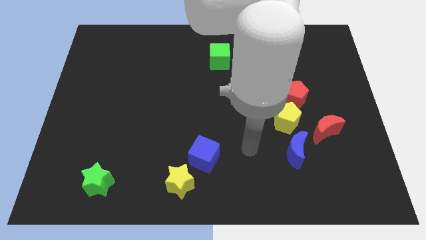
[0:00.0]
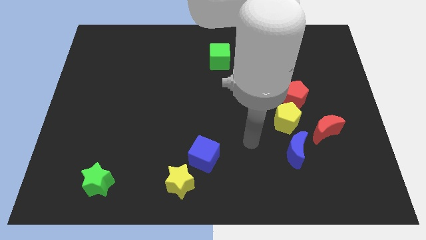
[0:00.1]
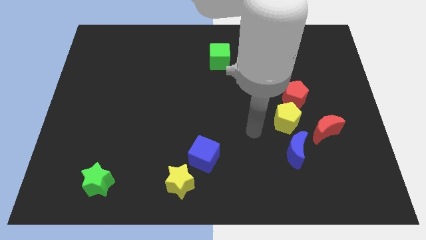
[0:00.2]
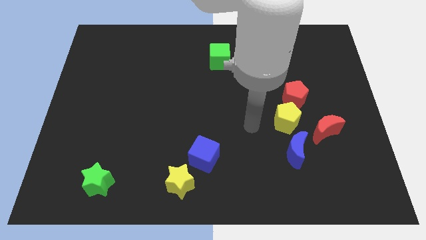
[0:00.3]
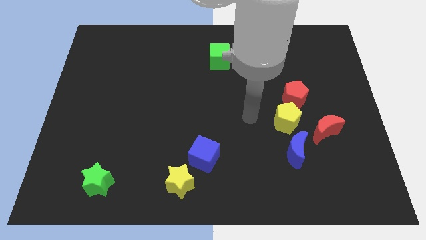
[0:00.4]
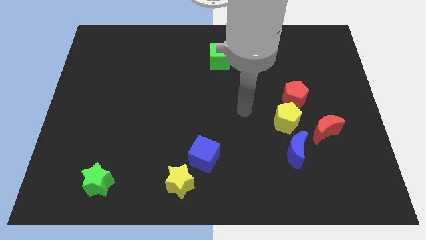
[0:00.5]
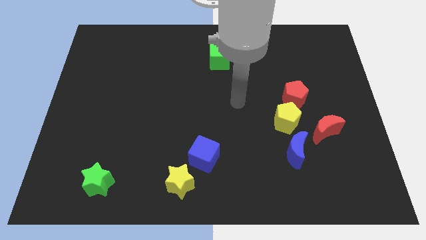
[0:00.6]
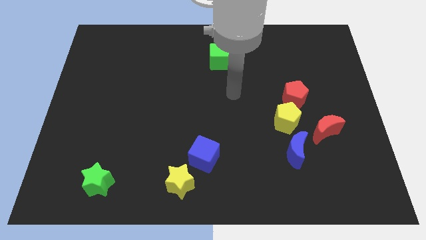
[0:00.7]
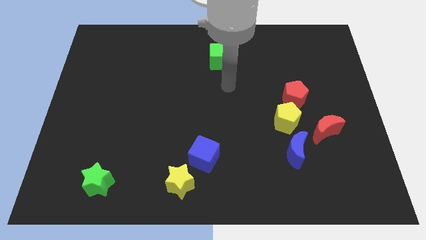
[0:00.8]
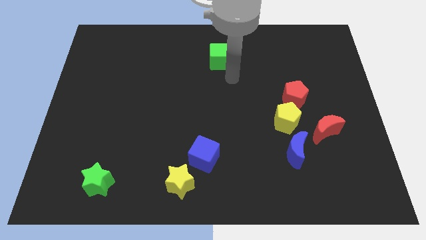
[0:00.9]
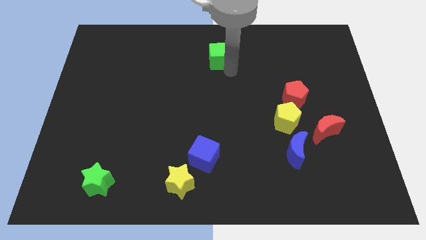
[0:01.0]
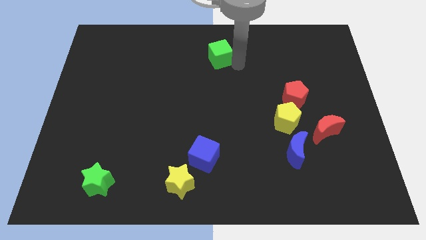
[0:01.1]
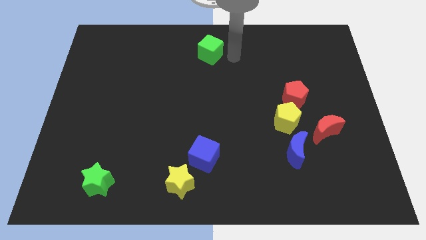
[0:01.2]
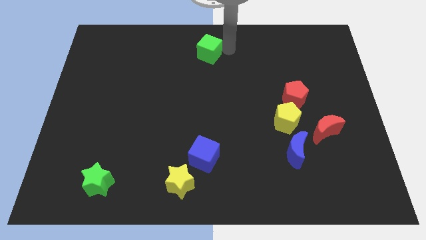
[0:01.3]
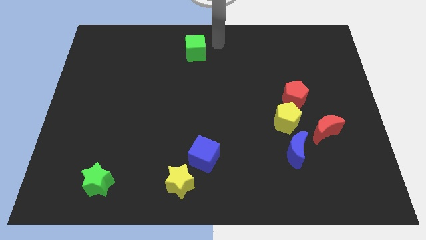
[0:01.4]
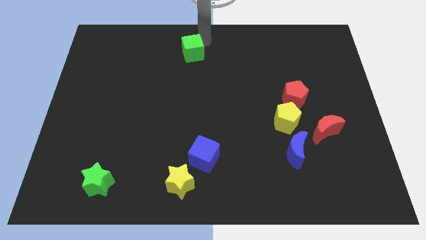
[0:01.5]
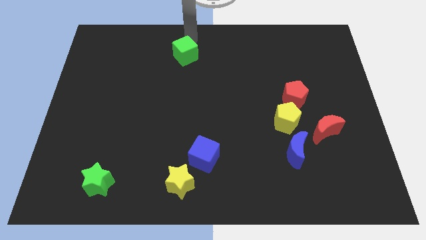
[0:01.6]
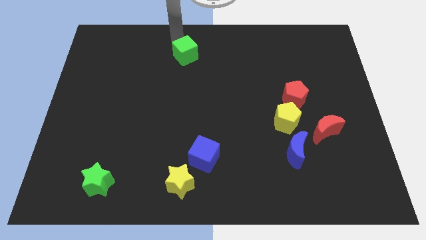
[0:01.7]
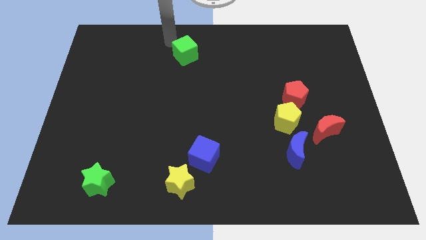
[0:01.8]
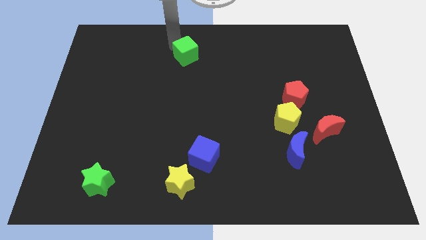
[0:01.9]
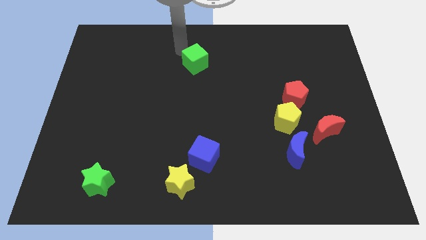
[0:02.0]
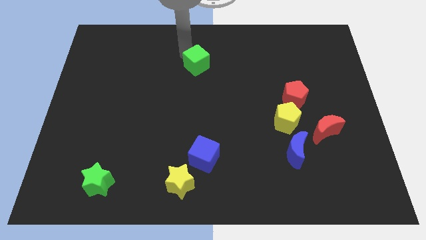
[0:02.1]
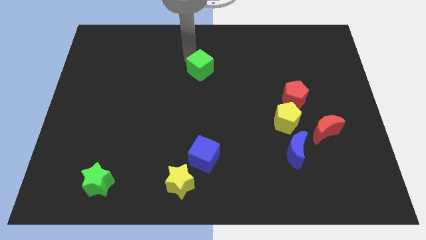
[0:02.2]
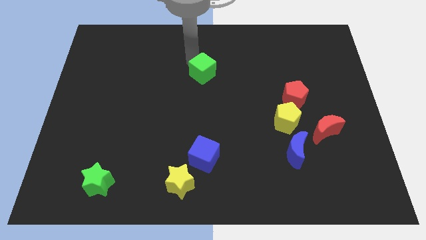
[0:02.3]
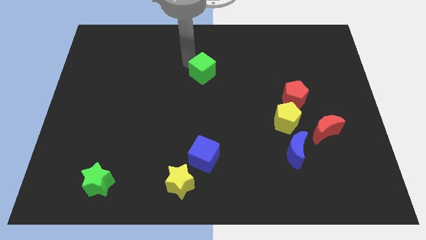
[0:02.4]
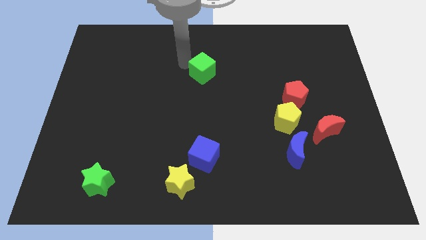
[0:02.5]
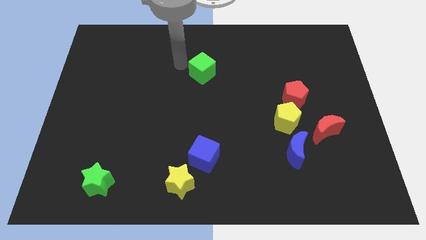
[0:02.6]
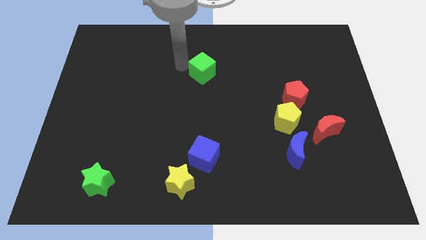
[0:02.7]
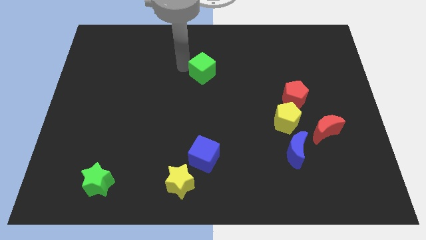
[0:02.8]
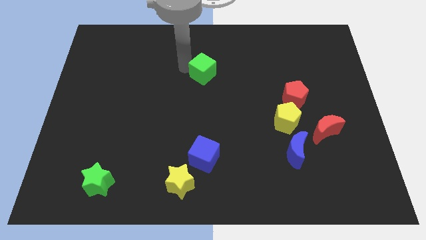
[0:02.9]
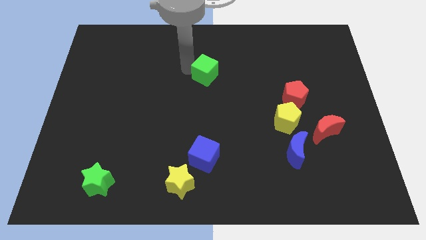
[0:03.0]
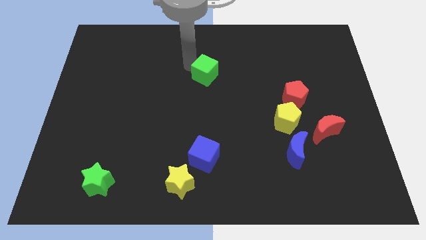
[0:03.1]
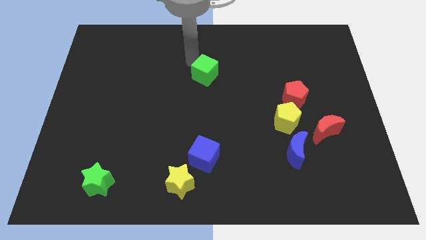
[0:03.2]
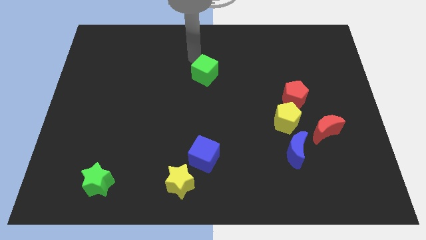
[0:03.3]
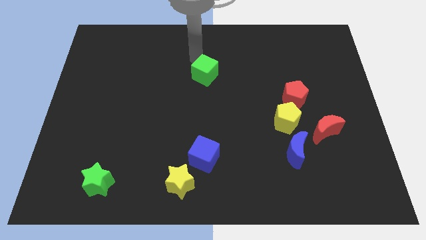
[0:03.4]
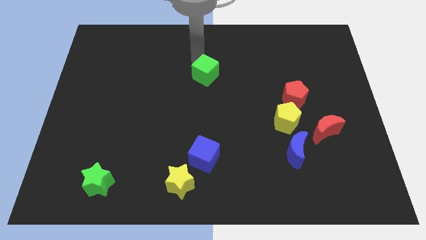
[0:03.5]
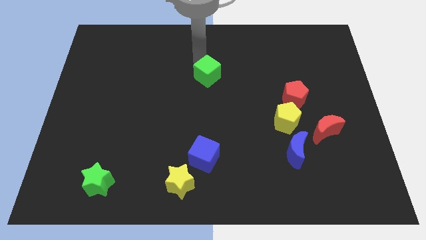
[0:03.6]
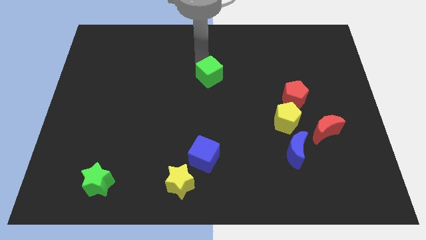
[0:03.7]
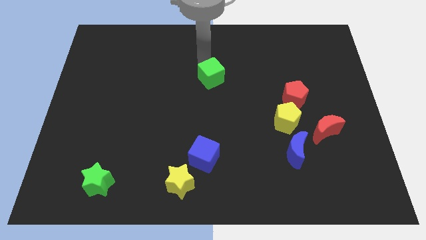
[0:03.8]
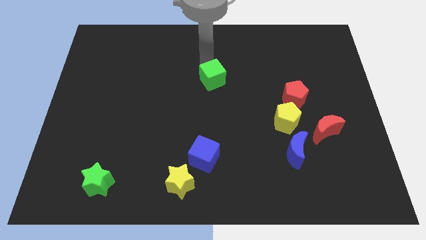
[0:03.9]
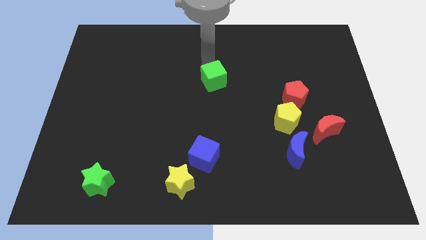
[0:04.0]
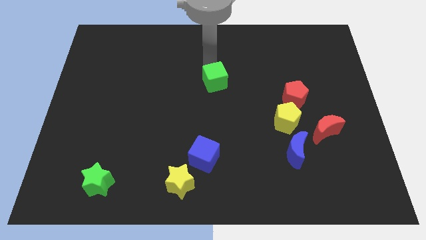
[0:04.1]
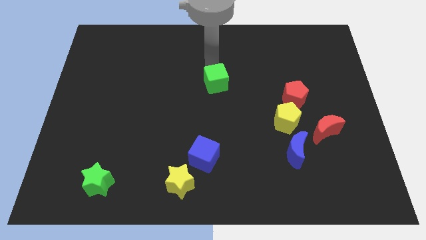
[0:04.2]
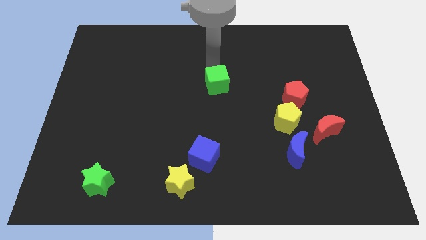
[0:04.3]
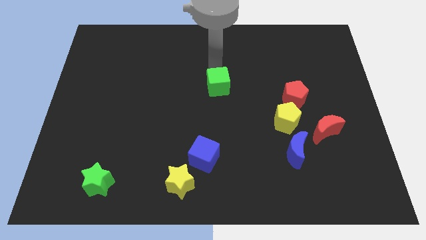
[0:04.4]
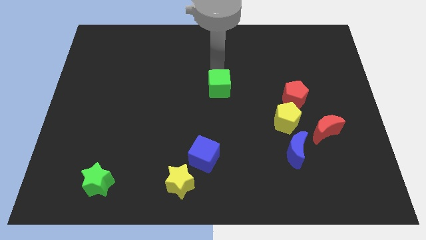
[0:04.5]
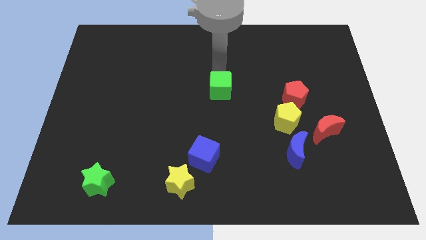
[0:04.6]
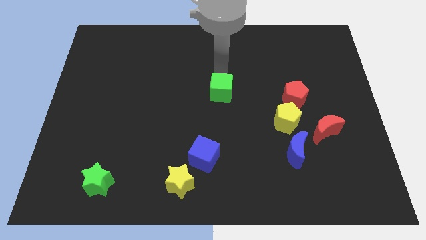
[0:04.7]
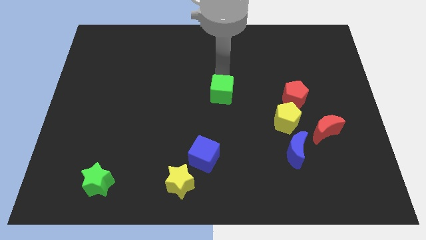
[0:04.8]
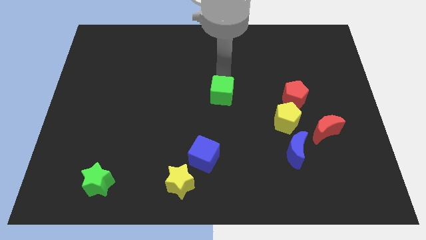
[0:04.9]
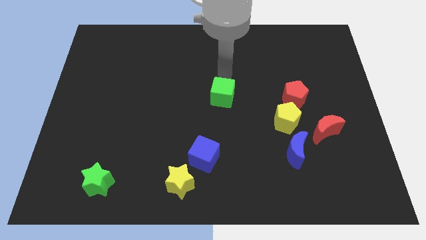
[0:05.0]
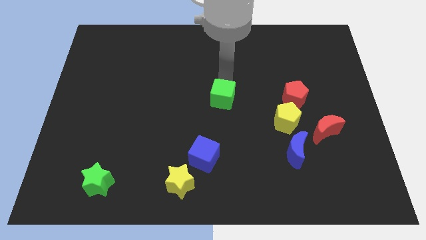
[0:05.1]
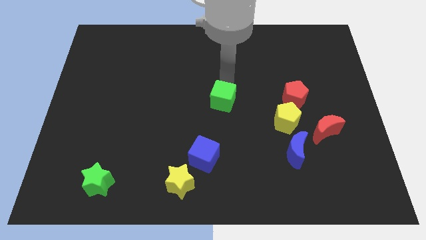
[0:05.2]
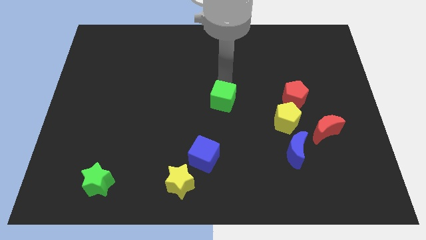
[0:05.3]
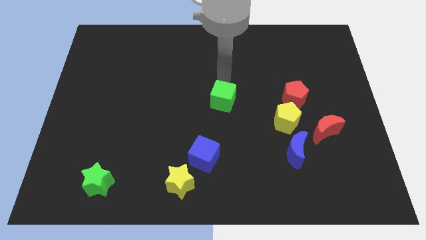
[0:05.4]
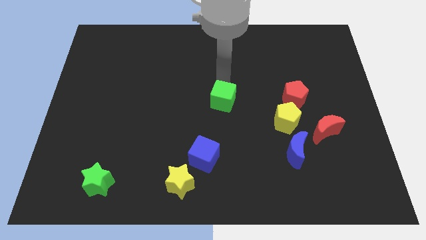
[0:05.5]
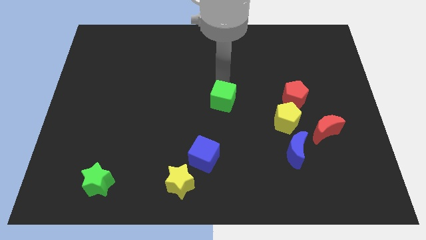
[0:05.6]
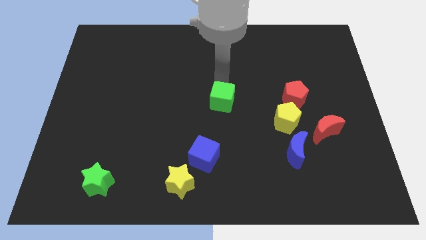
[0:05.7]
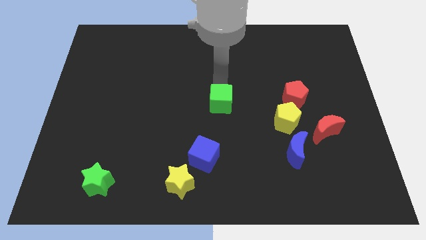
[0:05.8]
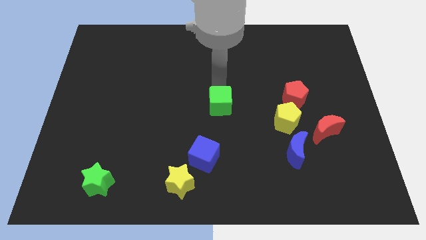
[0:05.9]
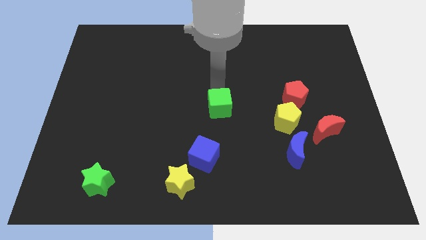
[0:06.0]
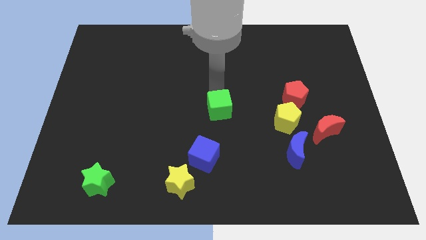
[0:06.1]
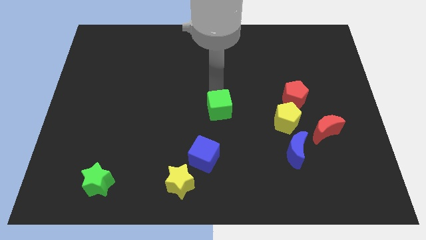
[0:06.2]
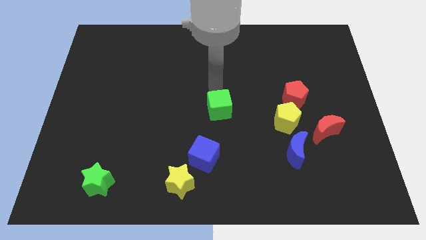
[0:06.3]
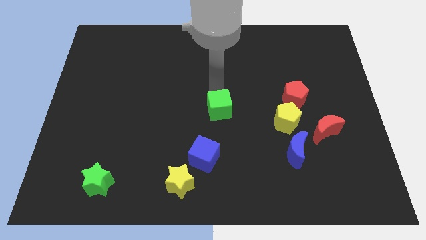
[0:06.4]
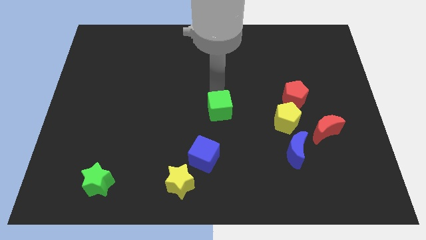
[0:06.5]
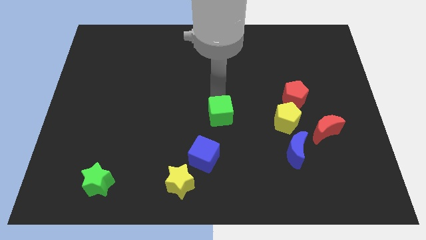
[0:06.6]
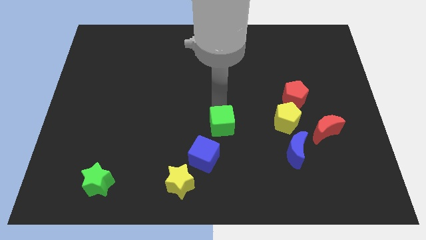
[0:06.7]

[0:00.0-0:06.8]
slide the green cube down

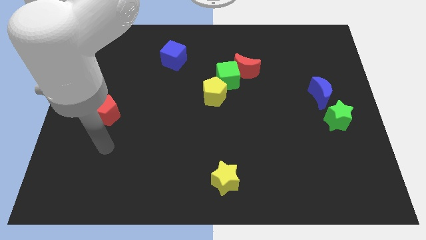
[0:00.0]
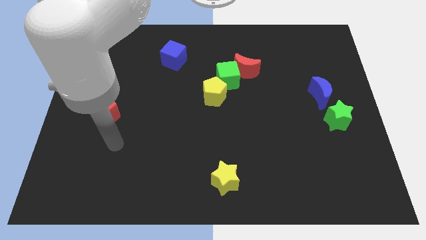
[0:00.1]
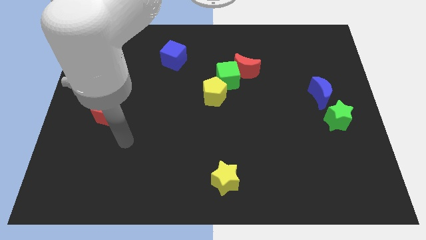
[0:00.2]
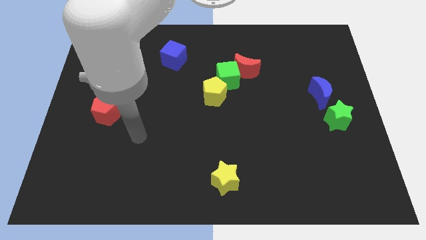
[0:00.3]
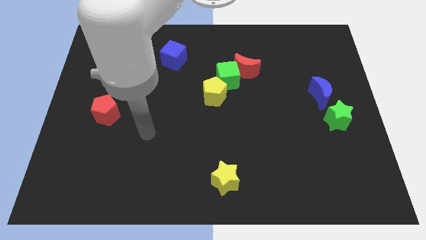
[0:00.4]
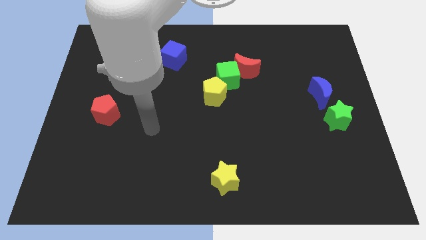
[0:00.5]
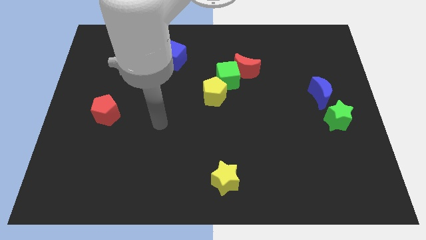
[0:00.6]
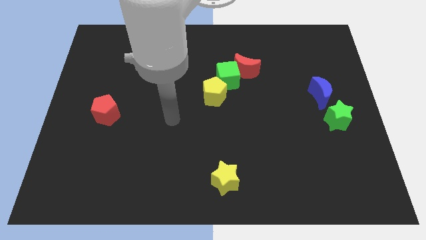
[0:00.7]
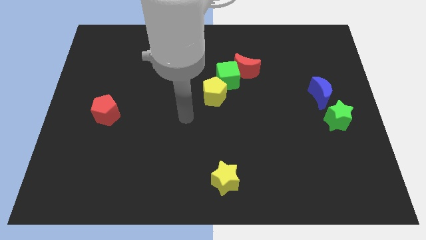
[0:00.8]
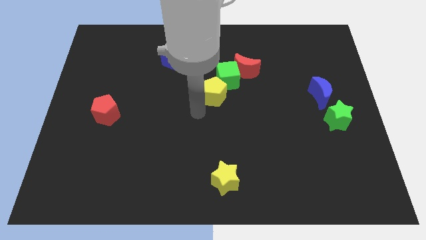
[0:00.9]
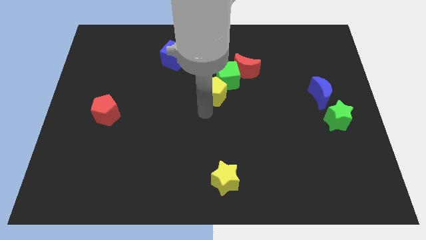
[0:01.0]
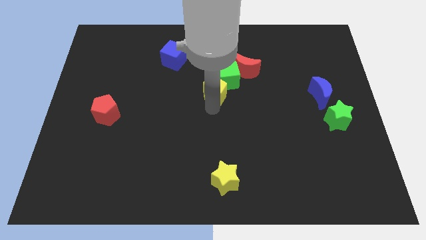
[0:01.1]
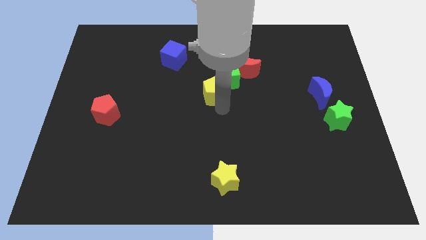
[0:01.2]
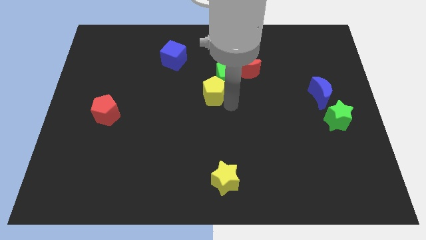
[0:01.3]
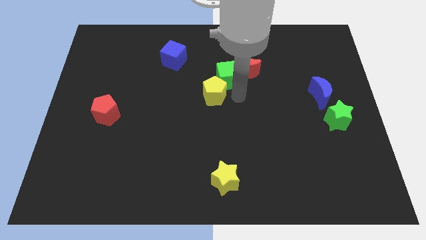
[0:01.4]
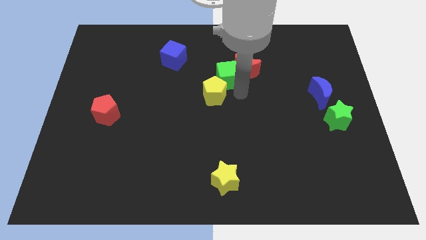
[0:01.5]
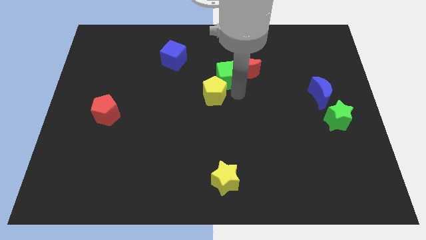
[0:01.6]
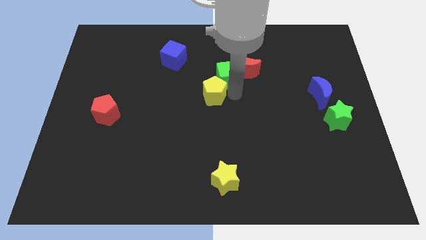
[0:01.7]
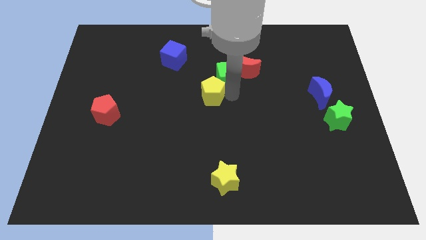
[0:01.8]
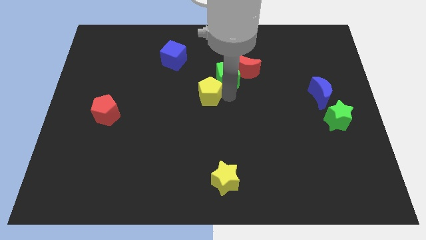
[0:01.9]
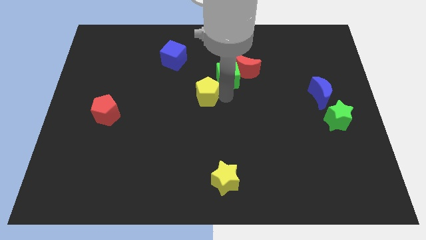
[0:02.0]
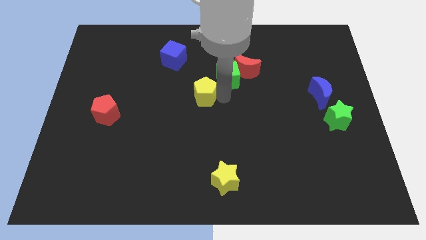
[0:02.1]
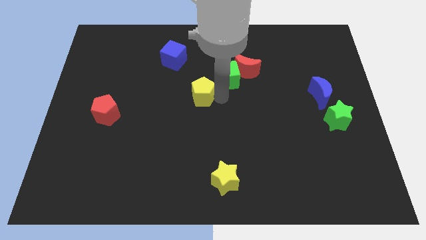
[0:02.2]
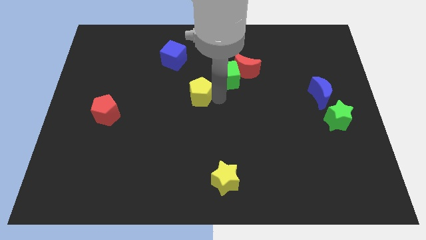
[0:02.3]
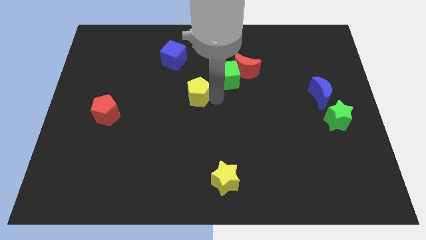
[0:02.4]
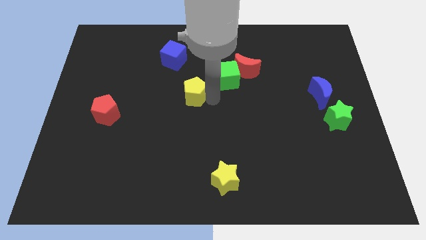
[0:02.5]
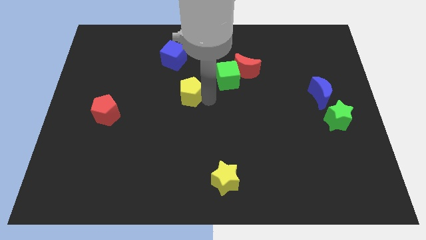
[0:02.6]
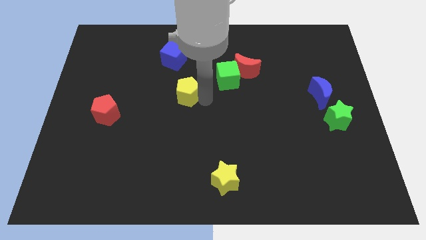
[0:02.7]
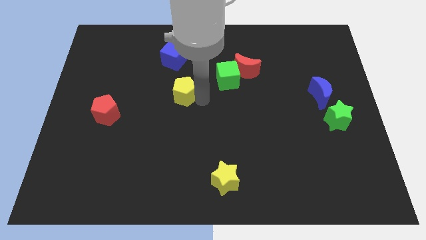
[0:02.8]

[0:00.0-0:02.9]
push the yellow pentagon left somewhat
